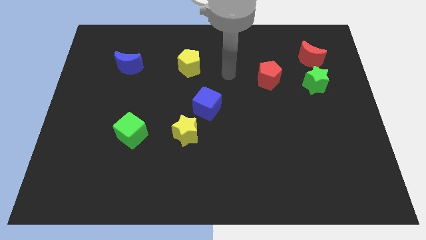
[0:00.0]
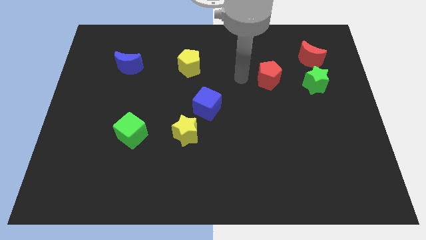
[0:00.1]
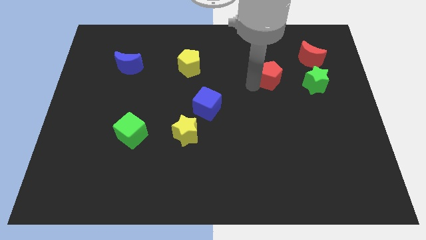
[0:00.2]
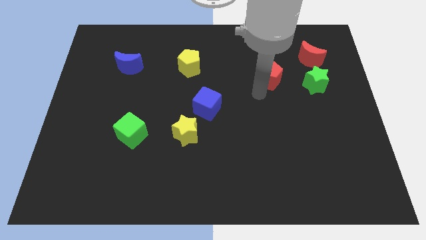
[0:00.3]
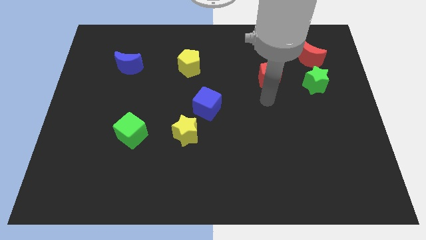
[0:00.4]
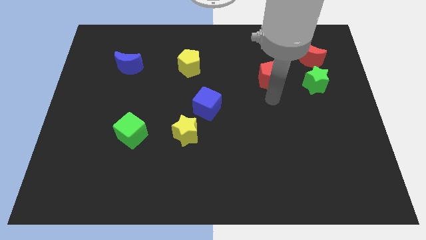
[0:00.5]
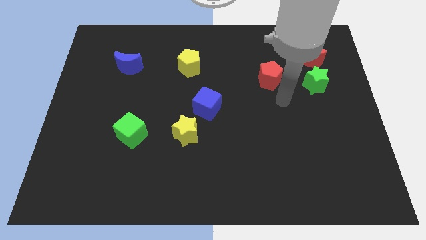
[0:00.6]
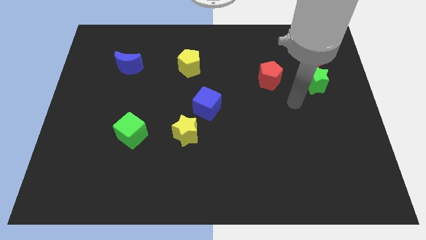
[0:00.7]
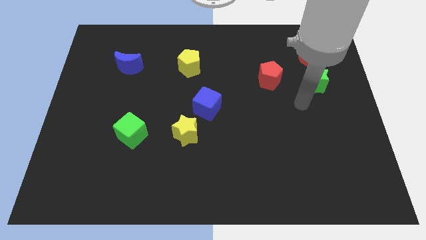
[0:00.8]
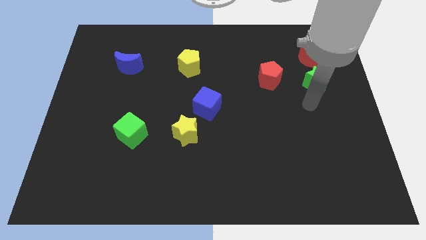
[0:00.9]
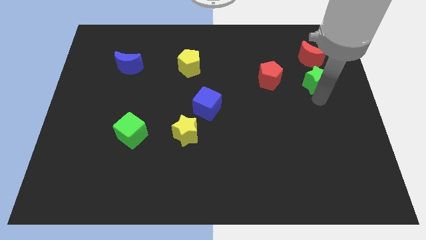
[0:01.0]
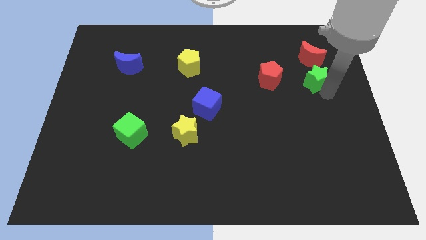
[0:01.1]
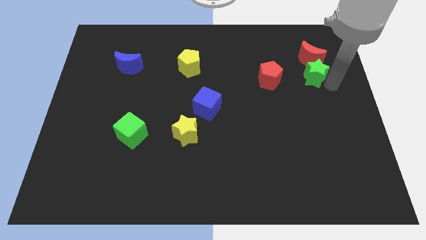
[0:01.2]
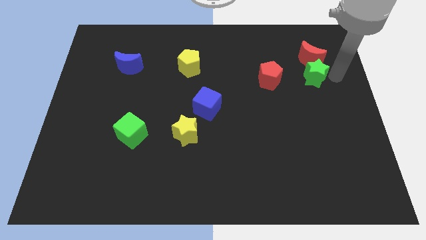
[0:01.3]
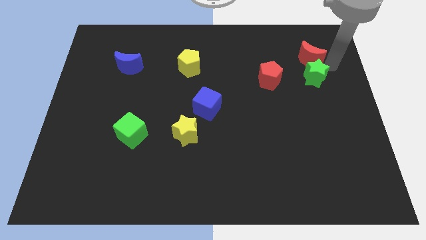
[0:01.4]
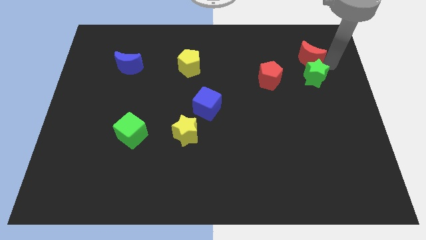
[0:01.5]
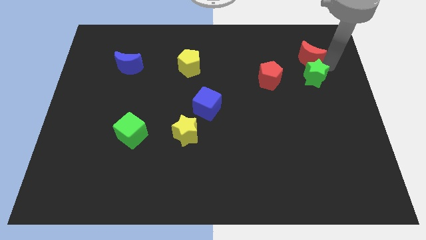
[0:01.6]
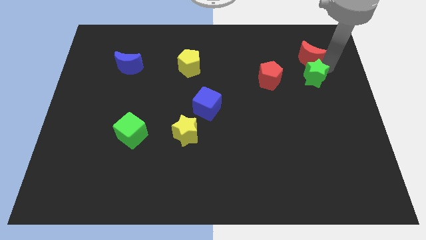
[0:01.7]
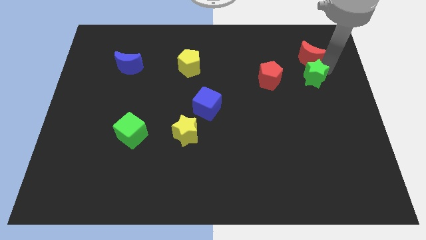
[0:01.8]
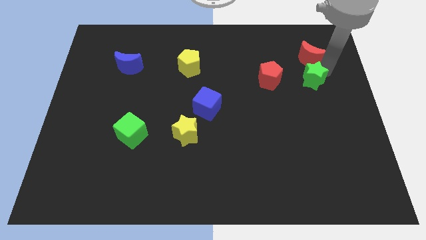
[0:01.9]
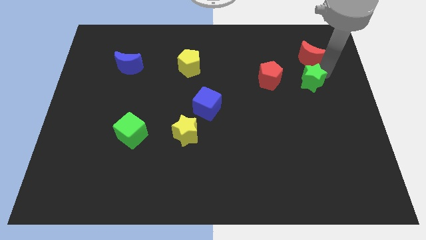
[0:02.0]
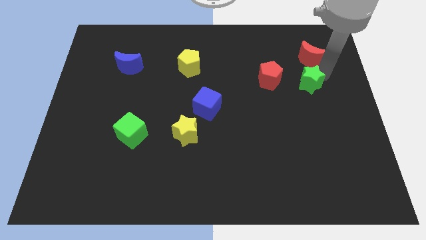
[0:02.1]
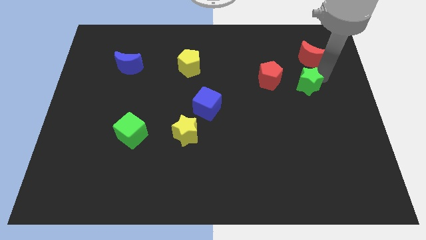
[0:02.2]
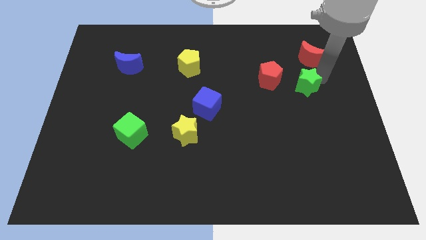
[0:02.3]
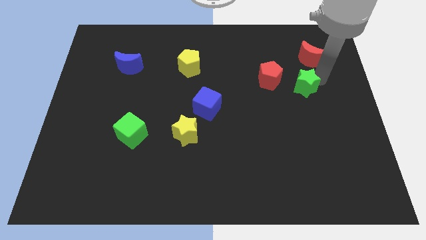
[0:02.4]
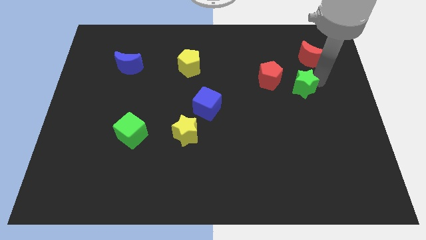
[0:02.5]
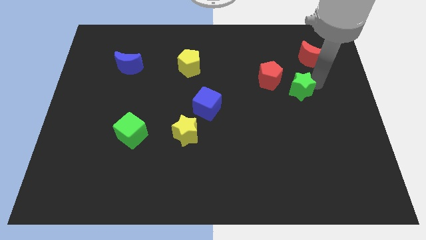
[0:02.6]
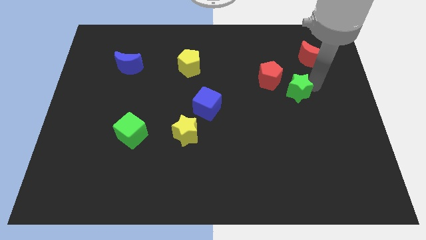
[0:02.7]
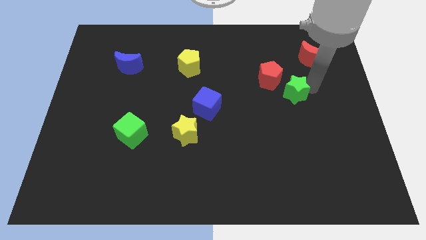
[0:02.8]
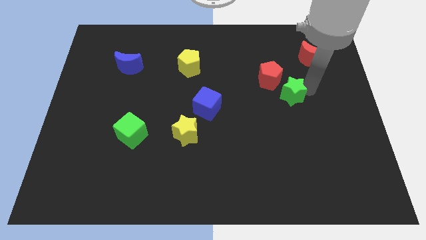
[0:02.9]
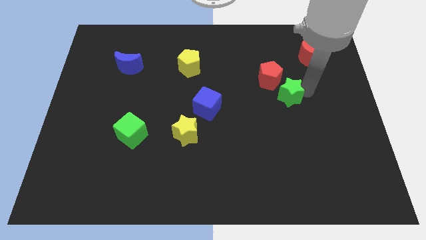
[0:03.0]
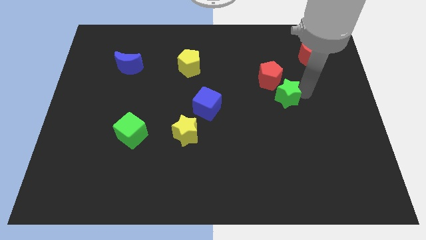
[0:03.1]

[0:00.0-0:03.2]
slide the green star left slightly

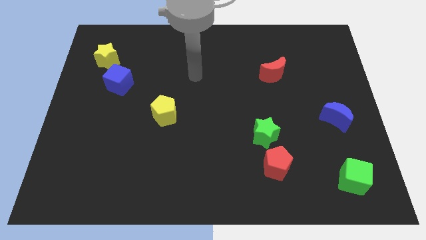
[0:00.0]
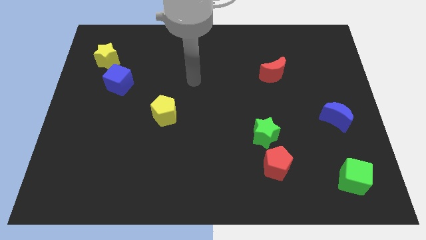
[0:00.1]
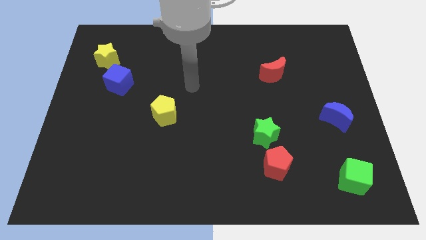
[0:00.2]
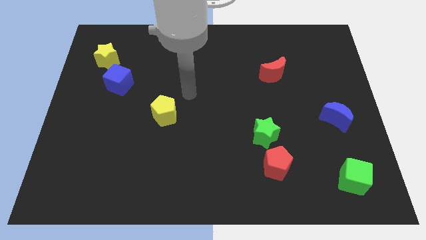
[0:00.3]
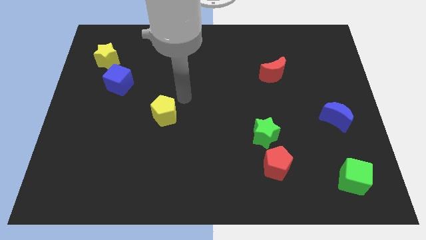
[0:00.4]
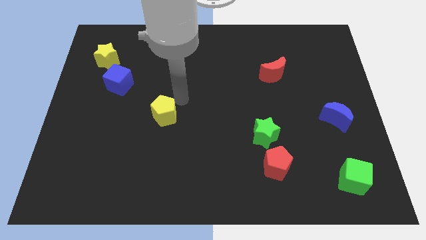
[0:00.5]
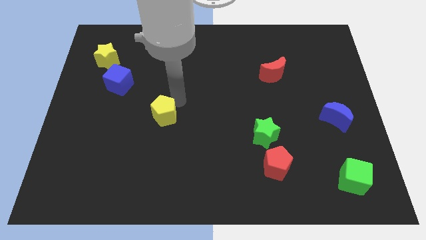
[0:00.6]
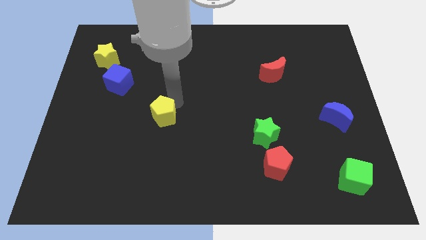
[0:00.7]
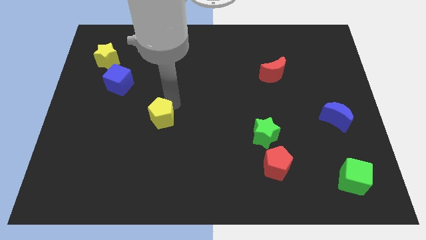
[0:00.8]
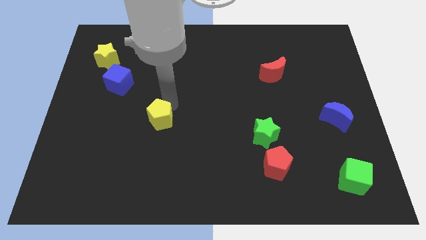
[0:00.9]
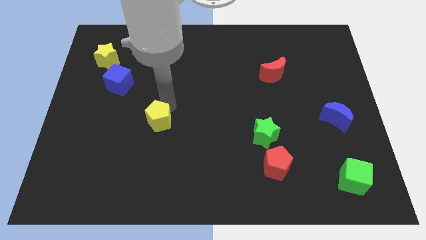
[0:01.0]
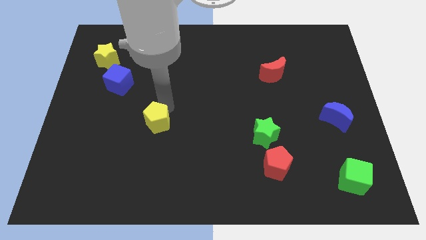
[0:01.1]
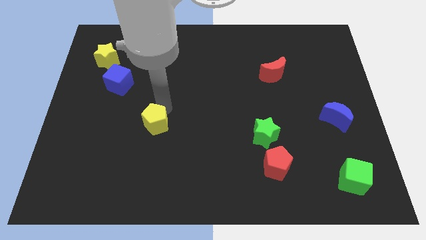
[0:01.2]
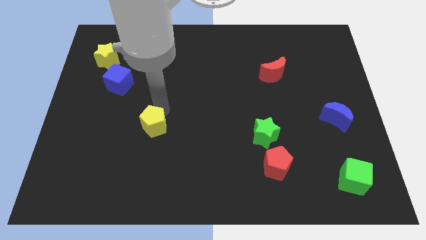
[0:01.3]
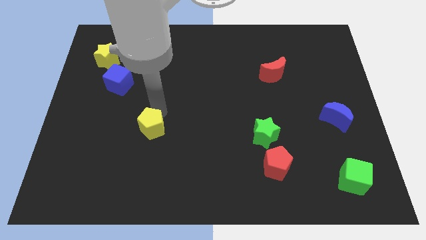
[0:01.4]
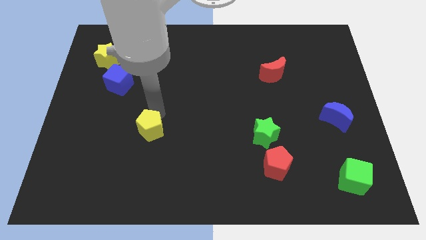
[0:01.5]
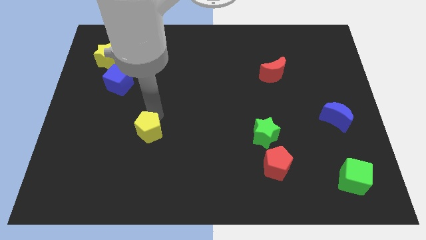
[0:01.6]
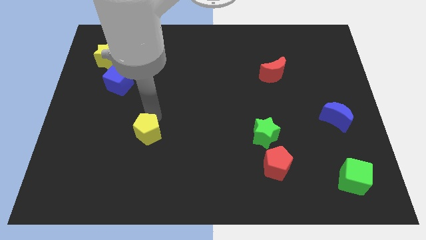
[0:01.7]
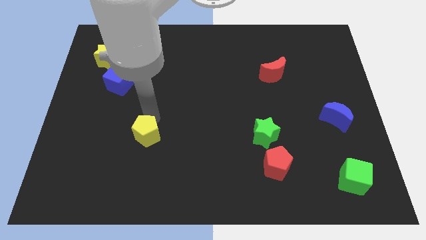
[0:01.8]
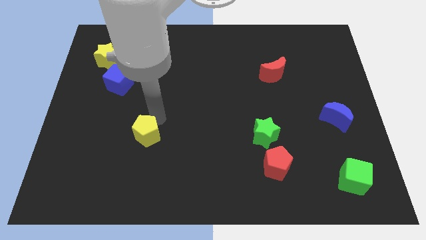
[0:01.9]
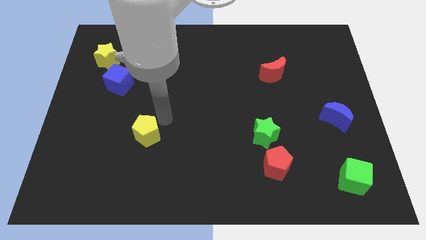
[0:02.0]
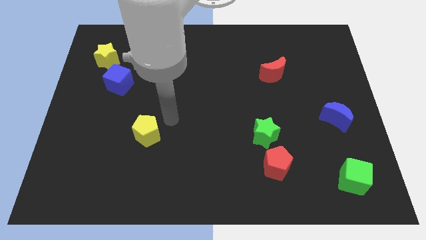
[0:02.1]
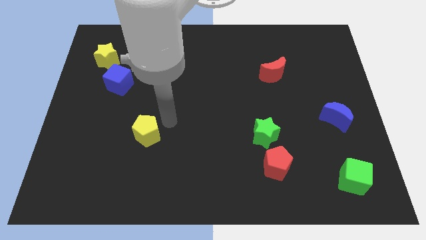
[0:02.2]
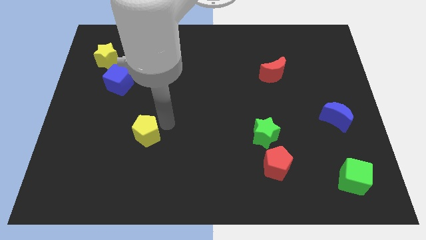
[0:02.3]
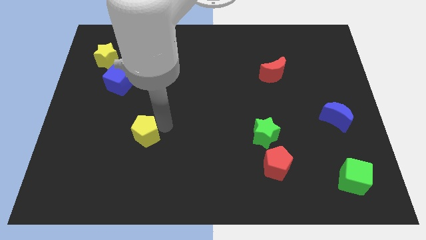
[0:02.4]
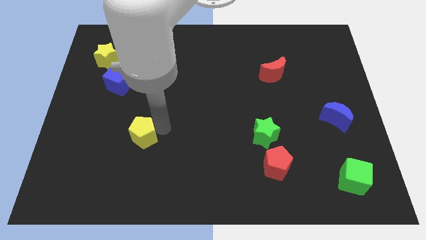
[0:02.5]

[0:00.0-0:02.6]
push the yellow pentagon downwards and left a little bit

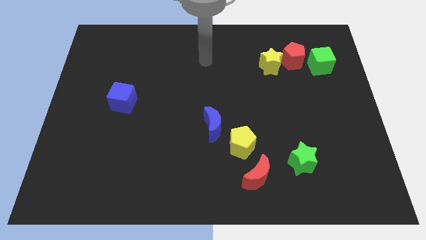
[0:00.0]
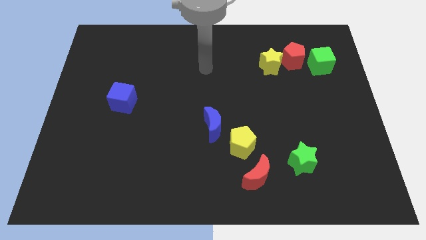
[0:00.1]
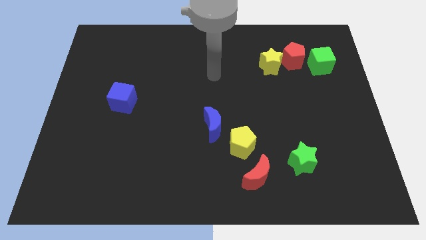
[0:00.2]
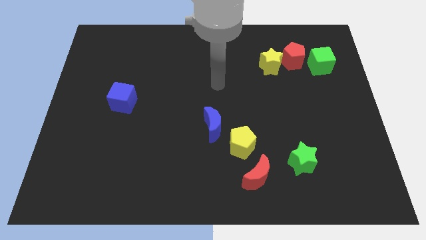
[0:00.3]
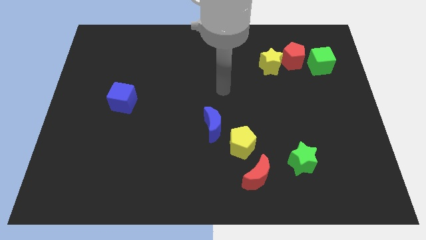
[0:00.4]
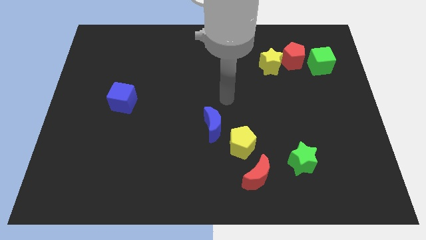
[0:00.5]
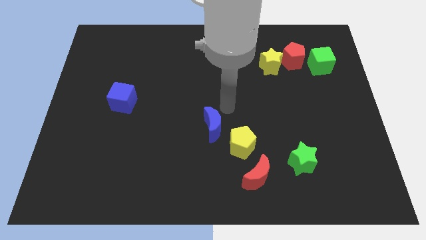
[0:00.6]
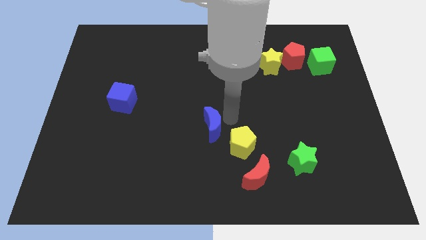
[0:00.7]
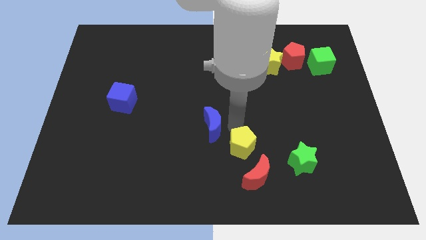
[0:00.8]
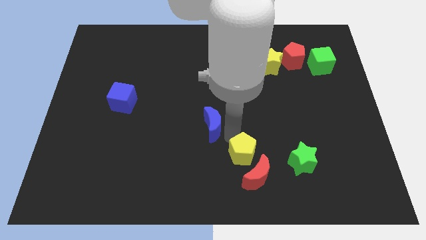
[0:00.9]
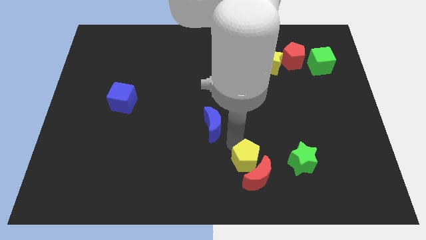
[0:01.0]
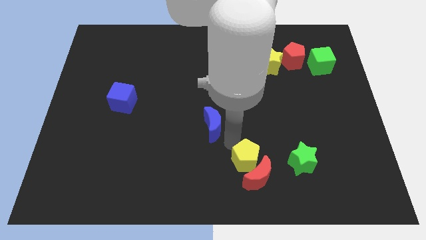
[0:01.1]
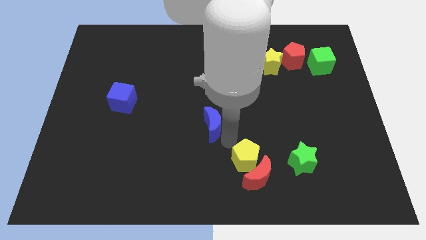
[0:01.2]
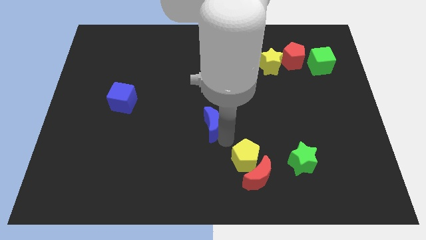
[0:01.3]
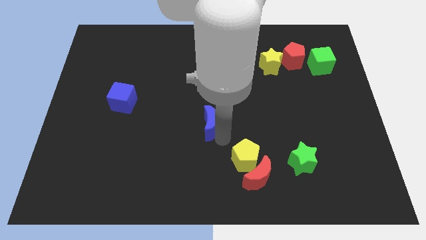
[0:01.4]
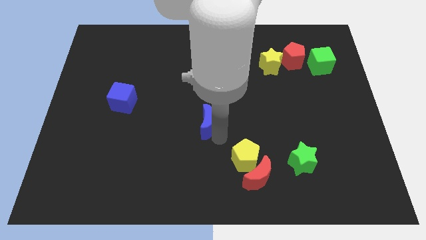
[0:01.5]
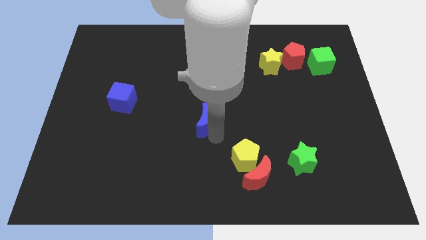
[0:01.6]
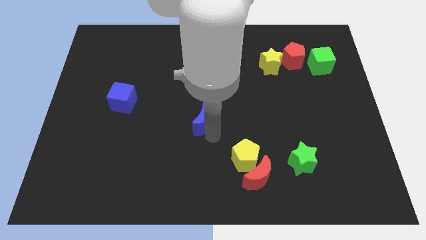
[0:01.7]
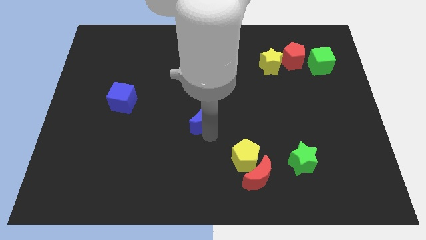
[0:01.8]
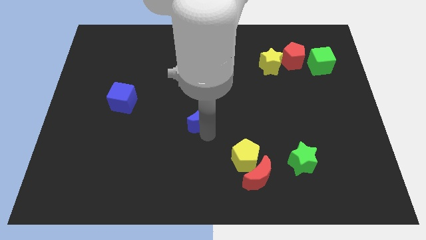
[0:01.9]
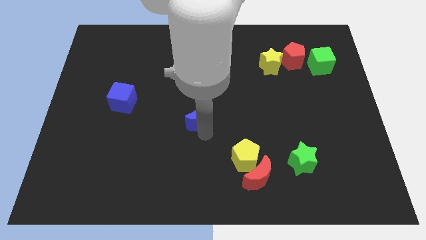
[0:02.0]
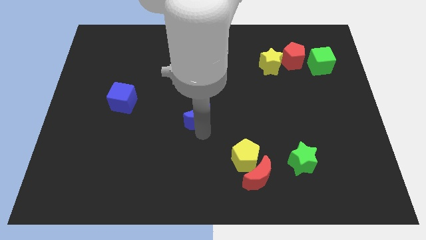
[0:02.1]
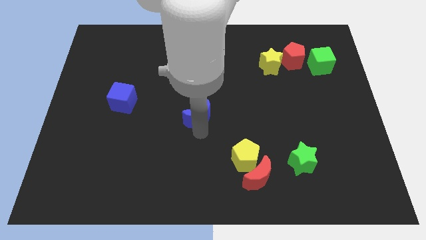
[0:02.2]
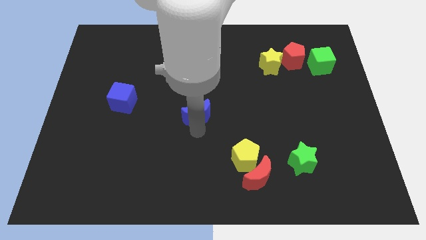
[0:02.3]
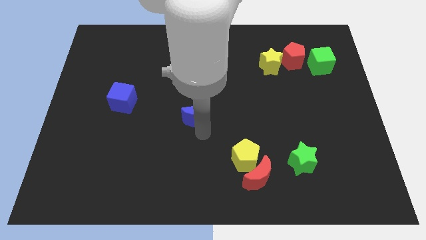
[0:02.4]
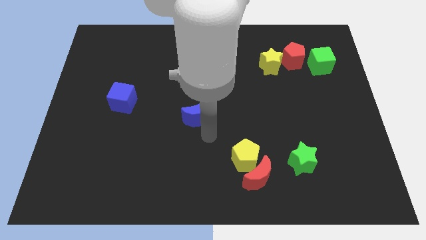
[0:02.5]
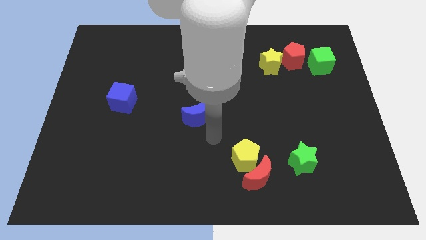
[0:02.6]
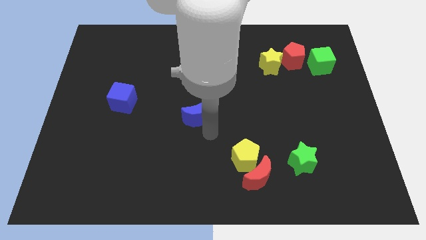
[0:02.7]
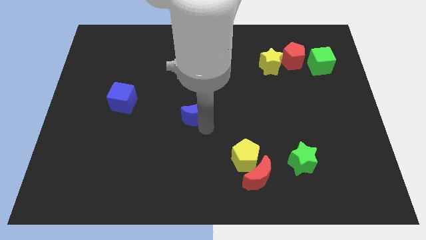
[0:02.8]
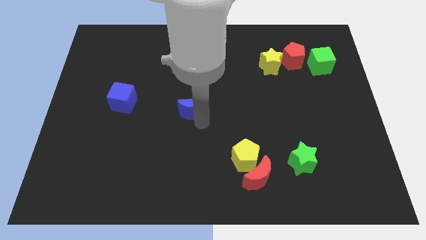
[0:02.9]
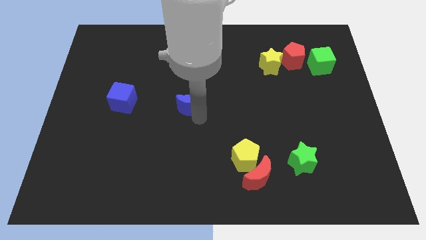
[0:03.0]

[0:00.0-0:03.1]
slide the blue moon slightly upwards and left diagonally
